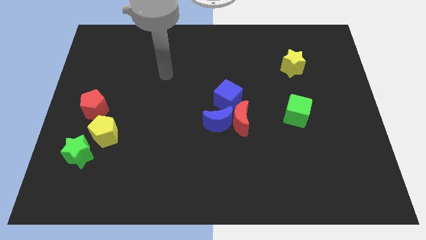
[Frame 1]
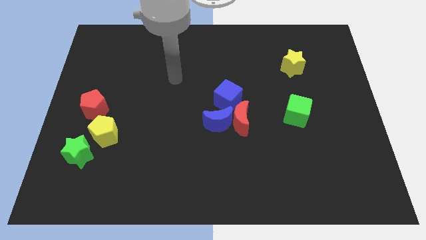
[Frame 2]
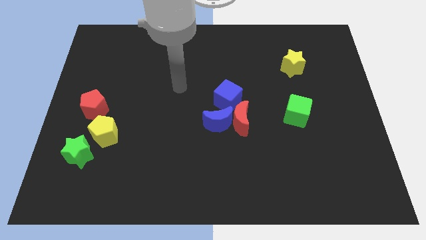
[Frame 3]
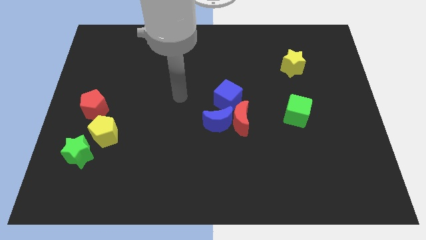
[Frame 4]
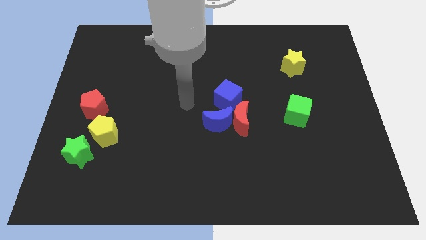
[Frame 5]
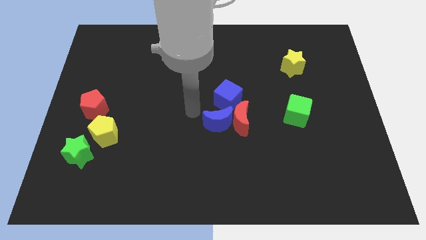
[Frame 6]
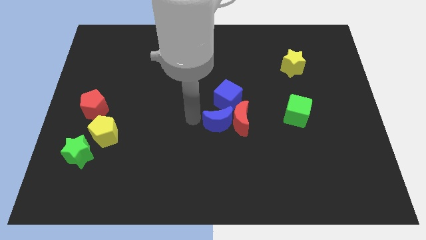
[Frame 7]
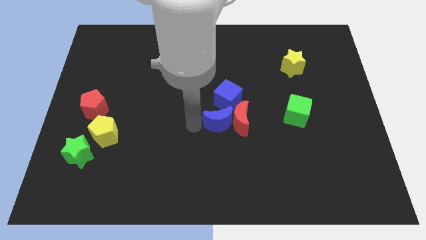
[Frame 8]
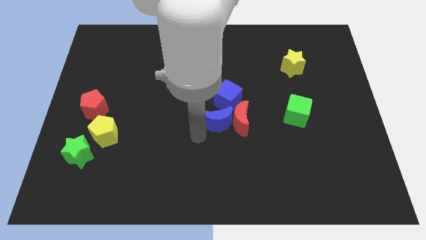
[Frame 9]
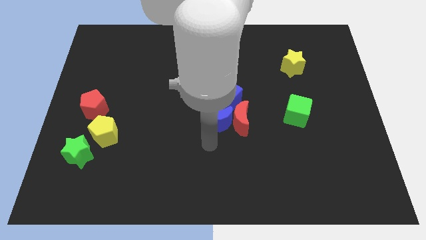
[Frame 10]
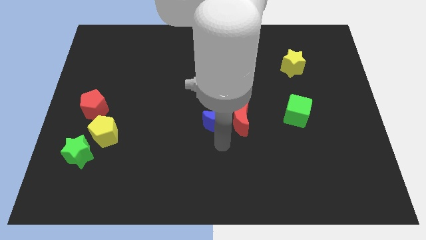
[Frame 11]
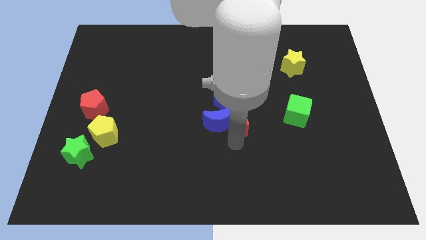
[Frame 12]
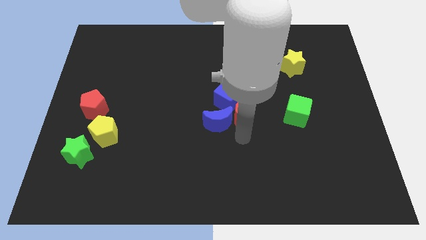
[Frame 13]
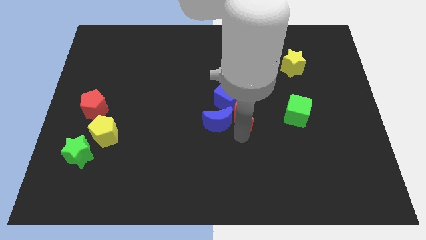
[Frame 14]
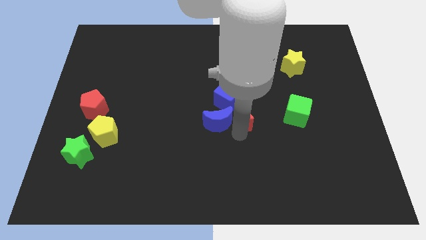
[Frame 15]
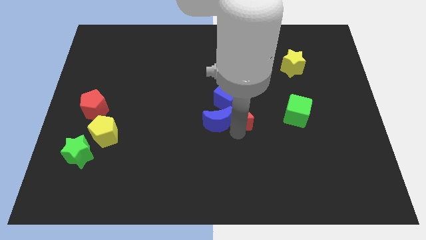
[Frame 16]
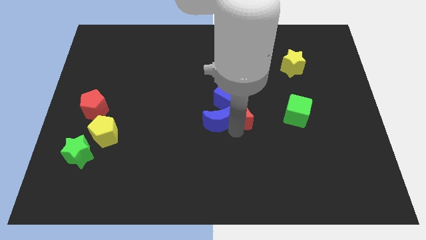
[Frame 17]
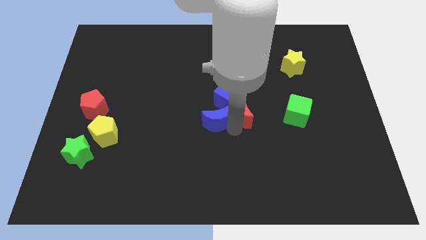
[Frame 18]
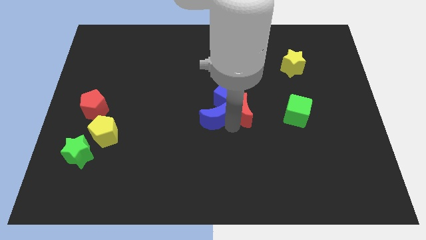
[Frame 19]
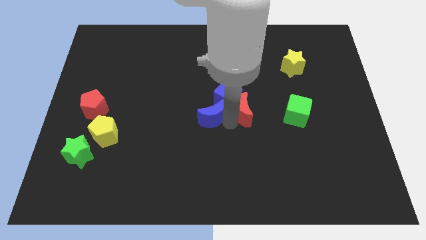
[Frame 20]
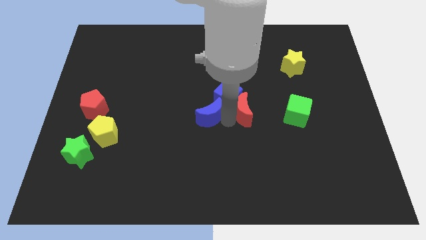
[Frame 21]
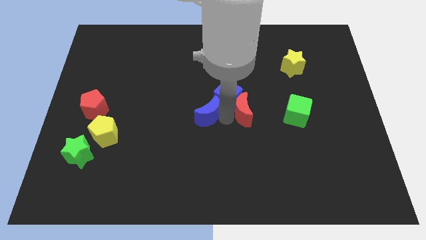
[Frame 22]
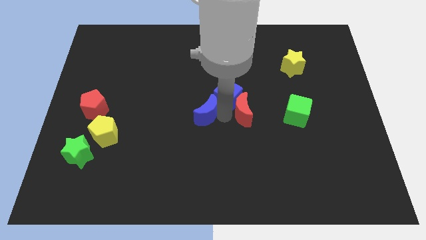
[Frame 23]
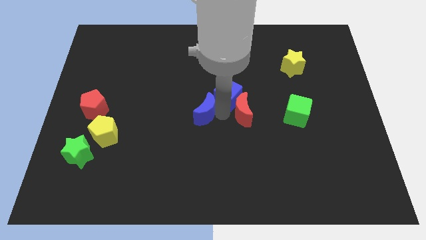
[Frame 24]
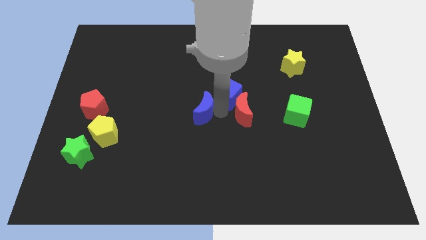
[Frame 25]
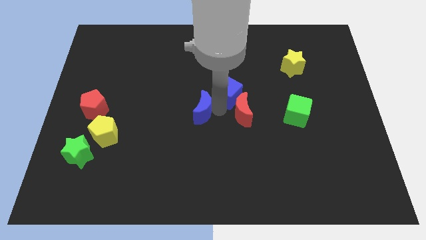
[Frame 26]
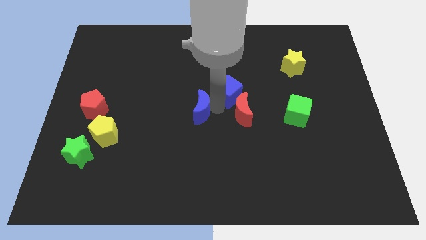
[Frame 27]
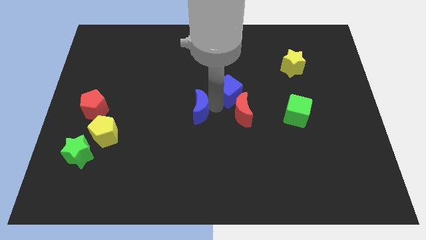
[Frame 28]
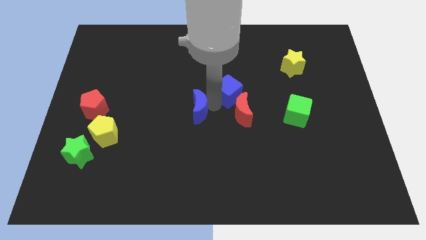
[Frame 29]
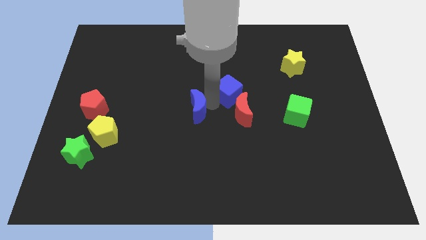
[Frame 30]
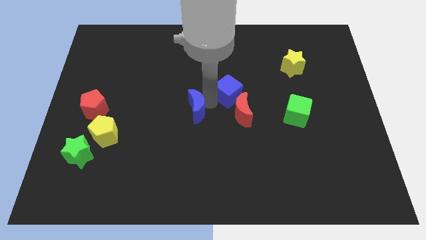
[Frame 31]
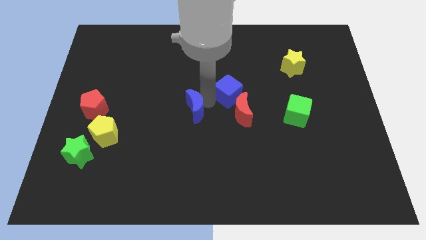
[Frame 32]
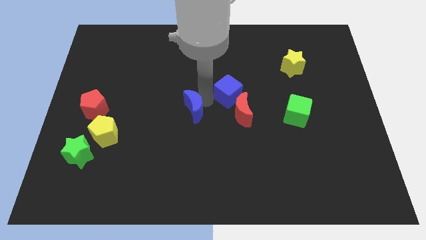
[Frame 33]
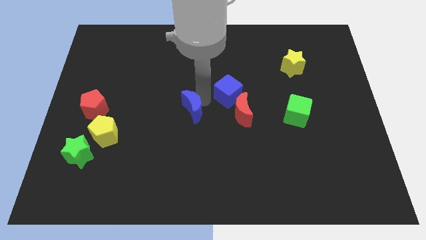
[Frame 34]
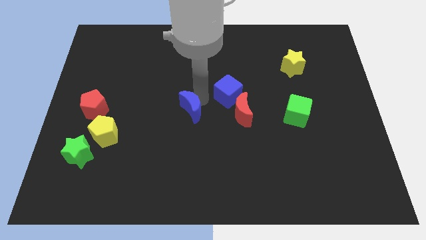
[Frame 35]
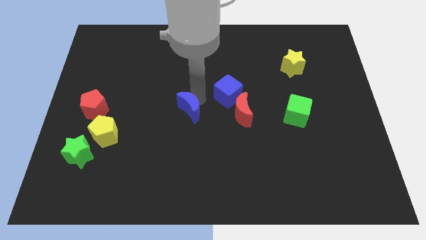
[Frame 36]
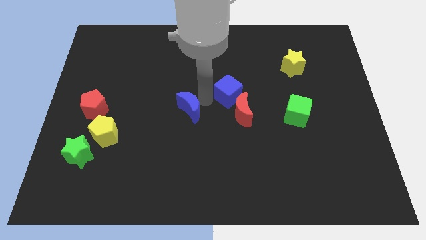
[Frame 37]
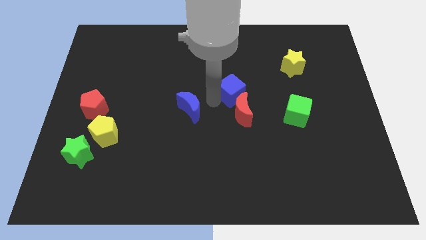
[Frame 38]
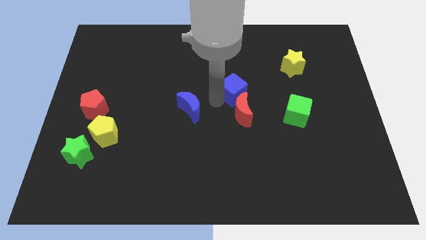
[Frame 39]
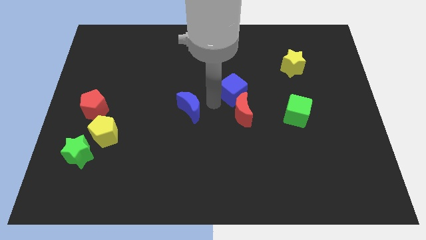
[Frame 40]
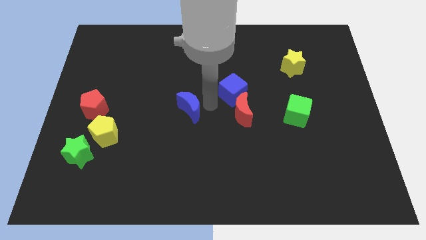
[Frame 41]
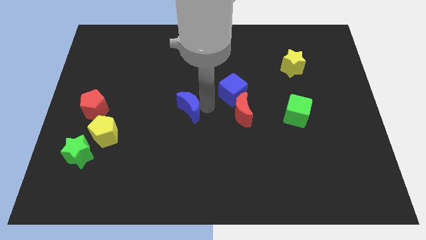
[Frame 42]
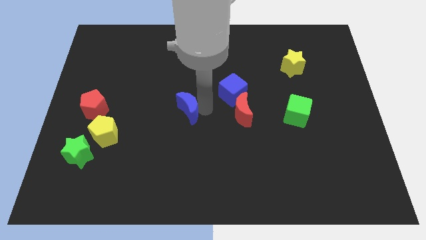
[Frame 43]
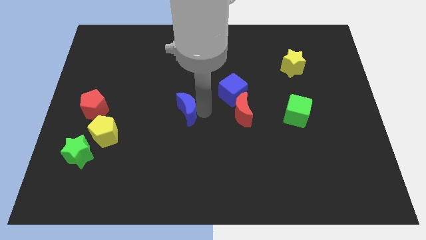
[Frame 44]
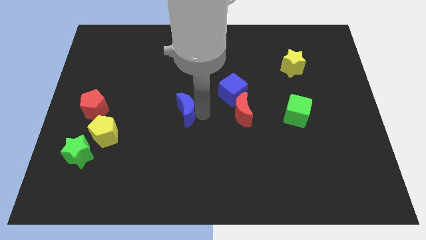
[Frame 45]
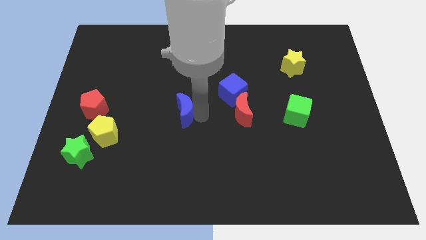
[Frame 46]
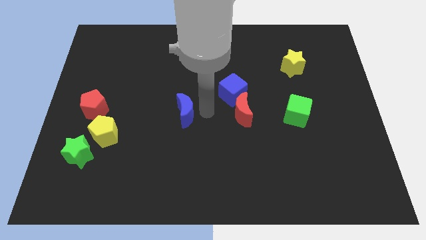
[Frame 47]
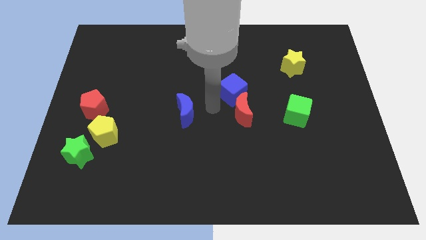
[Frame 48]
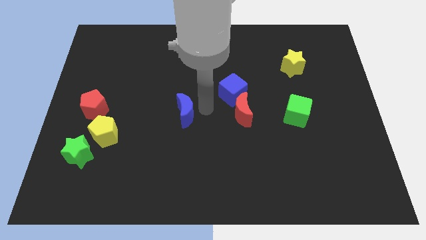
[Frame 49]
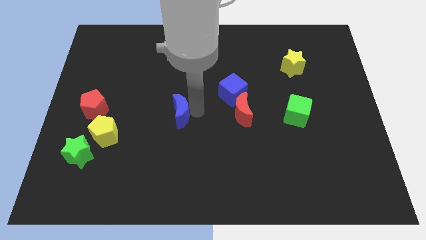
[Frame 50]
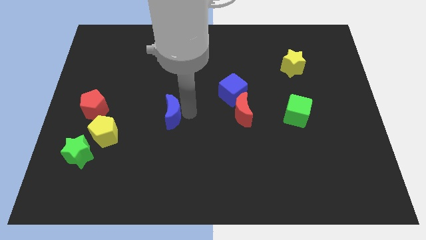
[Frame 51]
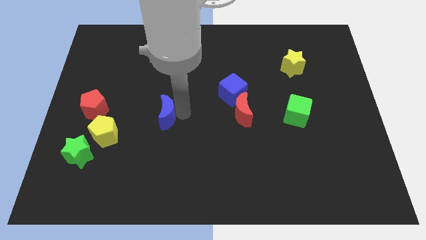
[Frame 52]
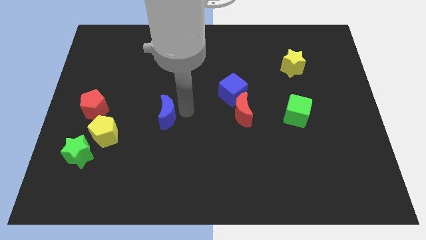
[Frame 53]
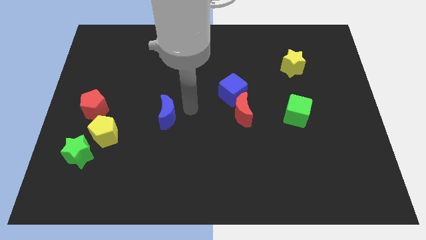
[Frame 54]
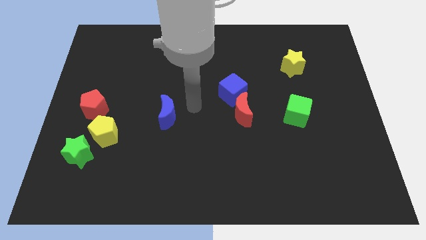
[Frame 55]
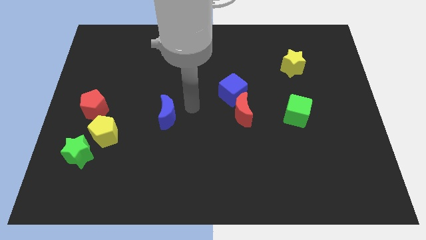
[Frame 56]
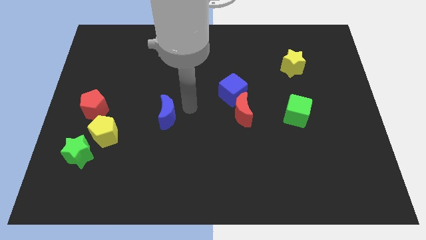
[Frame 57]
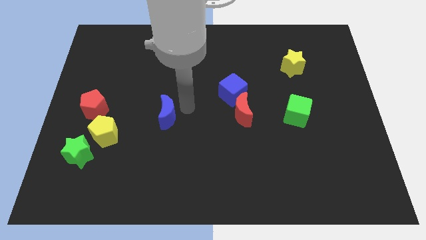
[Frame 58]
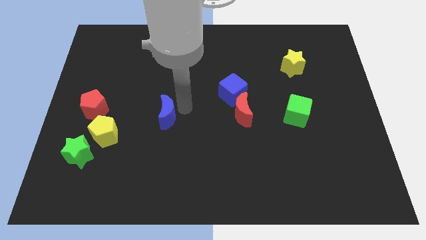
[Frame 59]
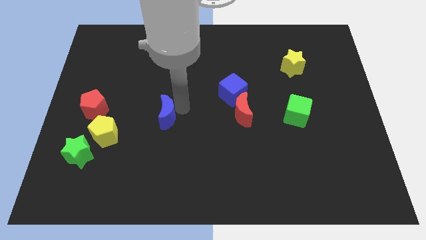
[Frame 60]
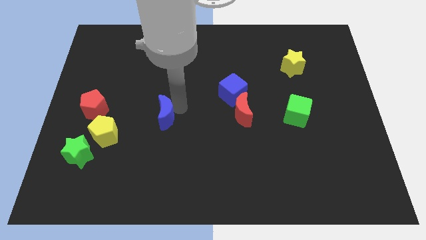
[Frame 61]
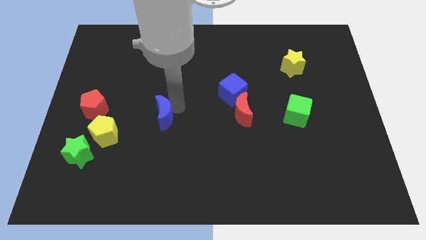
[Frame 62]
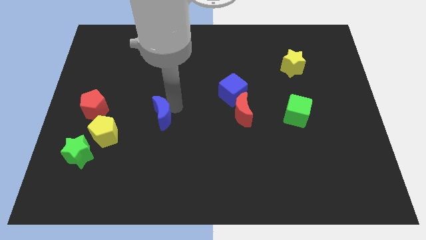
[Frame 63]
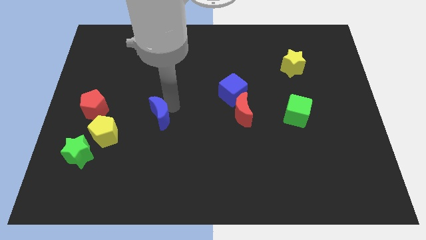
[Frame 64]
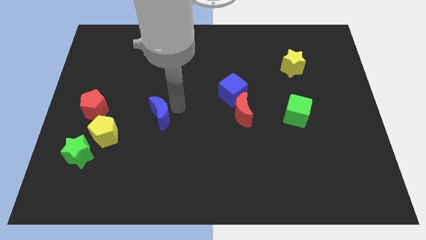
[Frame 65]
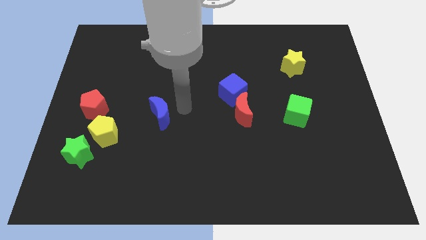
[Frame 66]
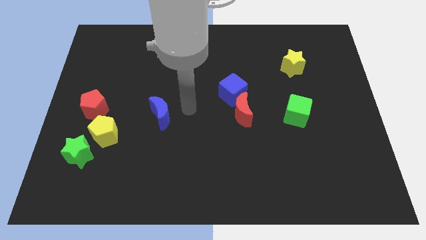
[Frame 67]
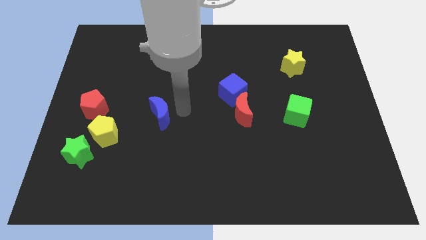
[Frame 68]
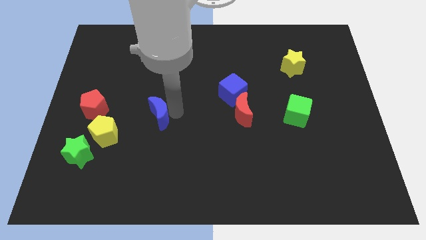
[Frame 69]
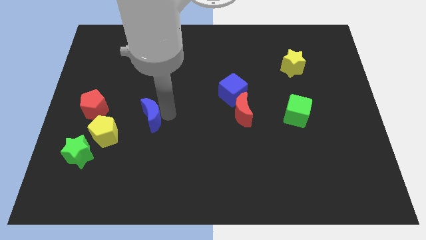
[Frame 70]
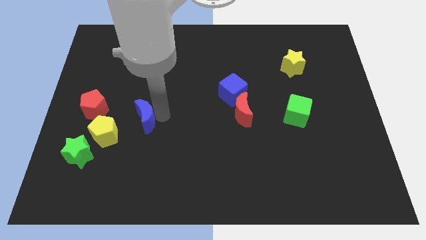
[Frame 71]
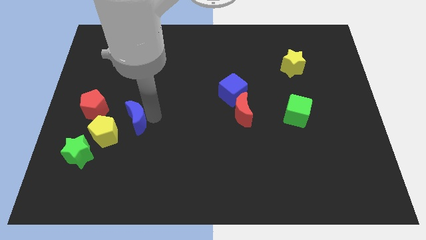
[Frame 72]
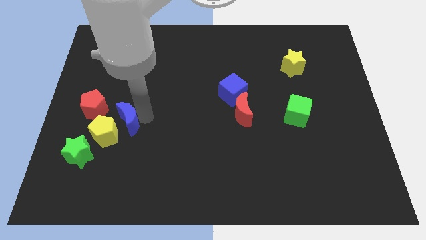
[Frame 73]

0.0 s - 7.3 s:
slide the blue moon to the top right of the green star

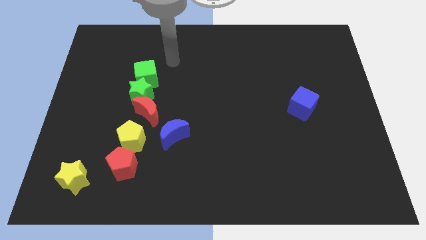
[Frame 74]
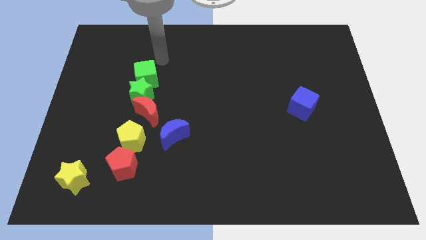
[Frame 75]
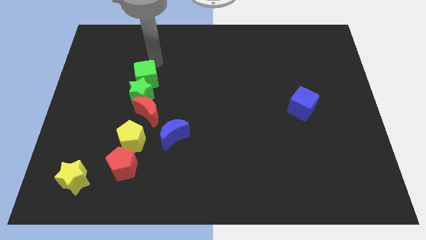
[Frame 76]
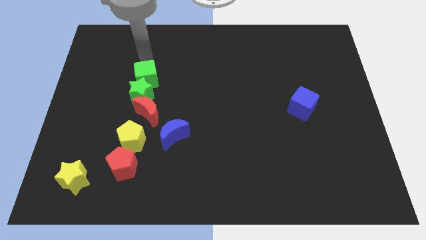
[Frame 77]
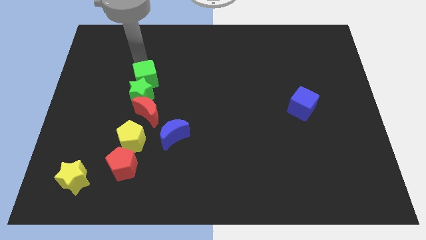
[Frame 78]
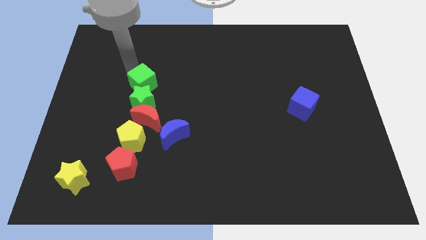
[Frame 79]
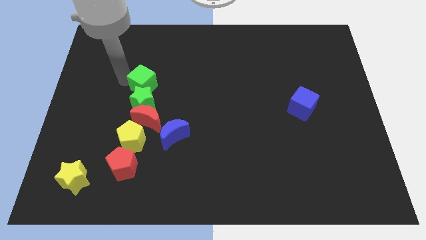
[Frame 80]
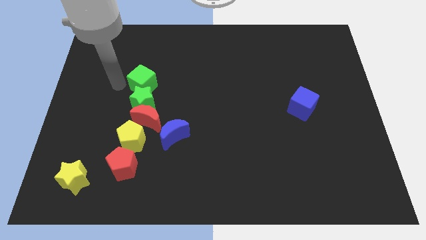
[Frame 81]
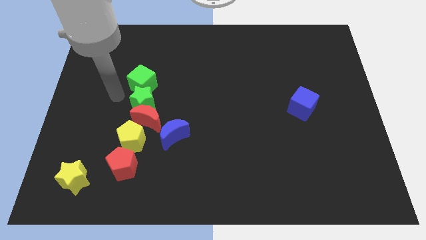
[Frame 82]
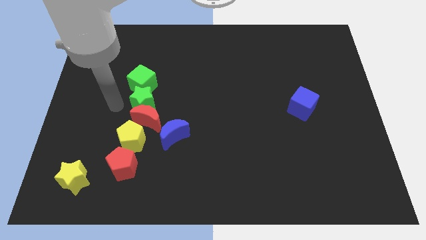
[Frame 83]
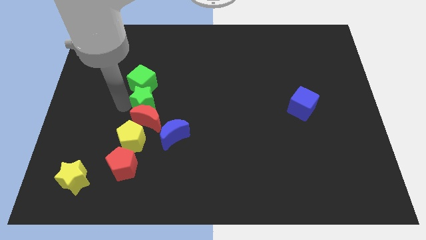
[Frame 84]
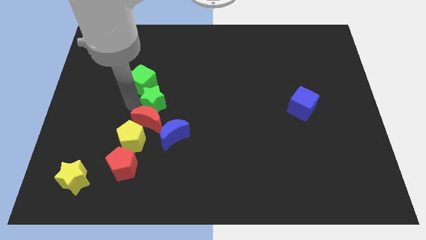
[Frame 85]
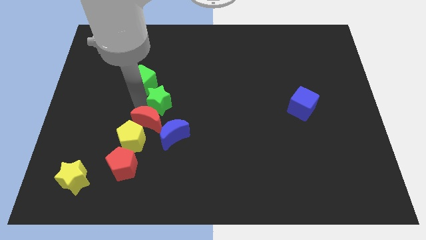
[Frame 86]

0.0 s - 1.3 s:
slide the green star above the blue moon
